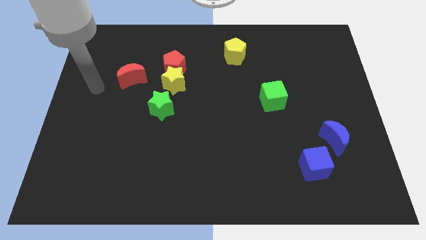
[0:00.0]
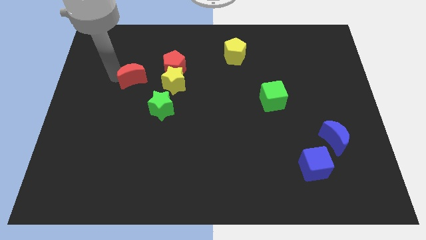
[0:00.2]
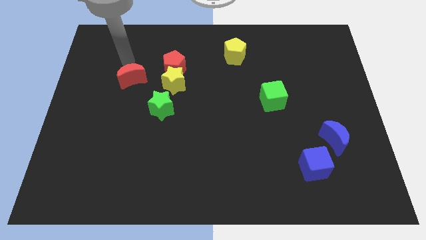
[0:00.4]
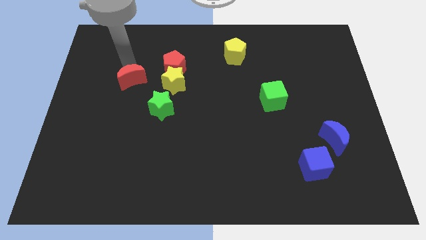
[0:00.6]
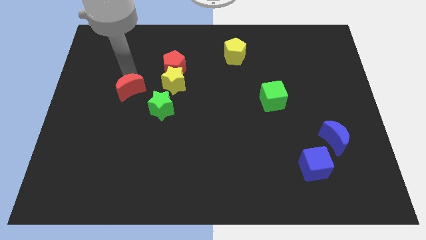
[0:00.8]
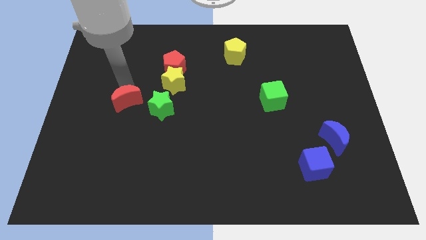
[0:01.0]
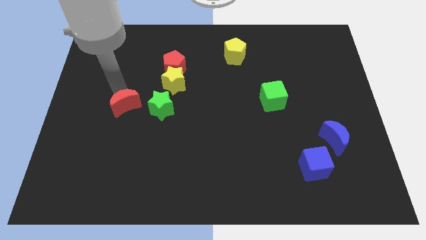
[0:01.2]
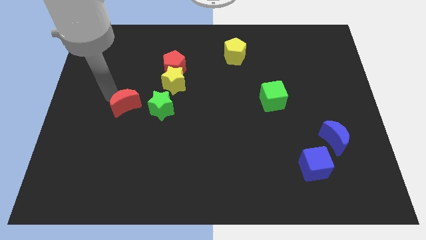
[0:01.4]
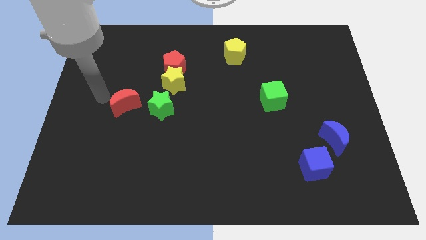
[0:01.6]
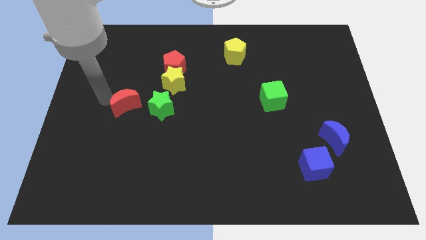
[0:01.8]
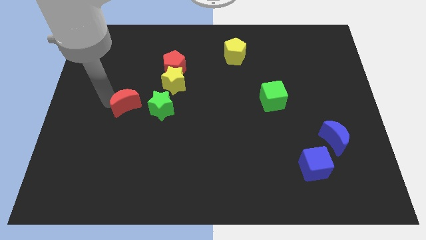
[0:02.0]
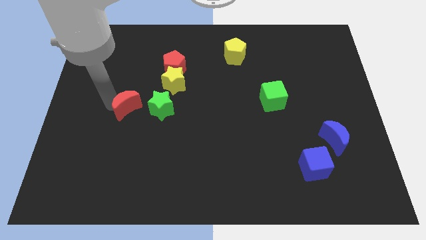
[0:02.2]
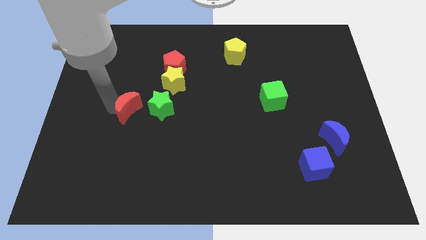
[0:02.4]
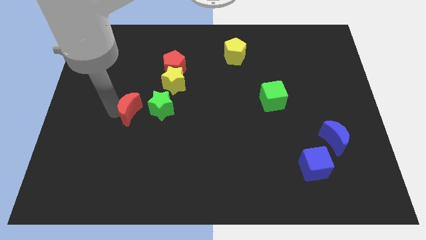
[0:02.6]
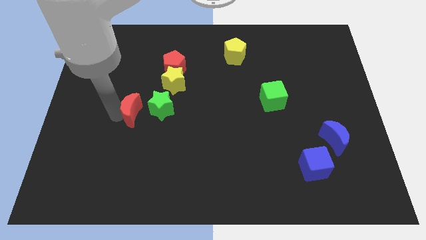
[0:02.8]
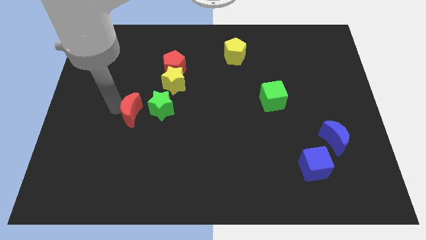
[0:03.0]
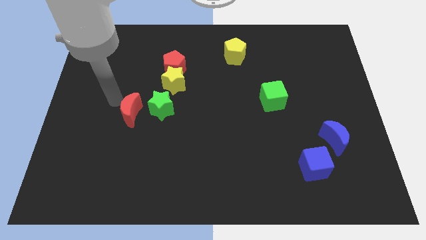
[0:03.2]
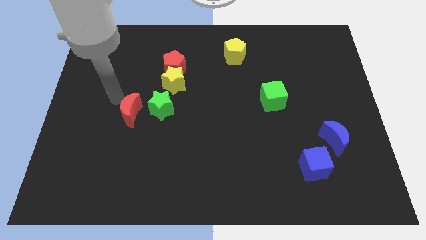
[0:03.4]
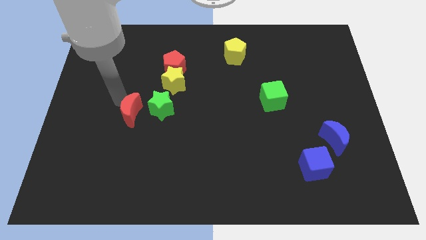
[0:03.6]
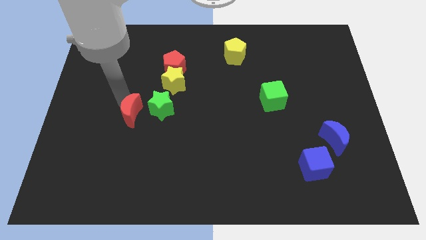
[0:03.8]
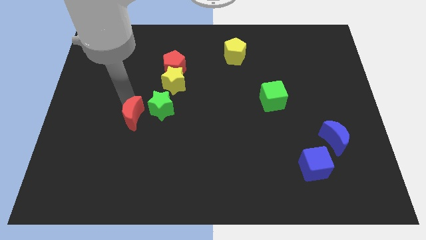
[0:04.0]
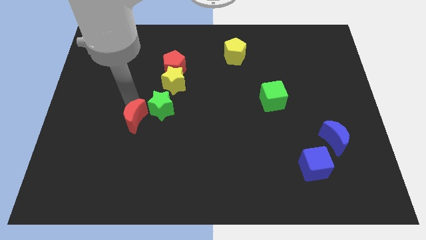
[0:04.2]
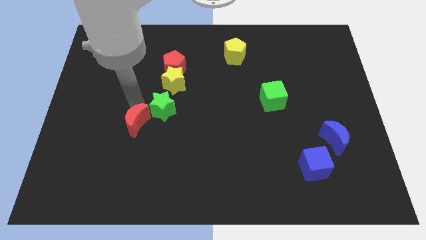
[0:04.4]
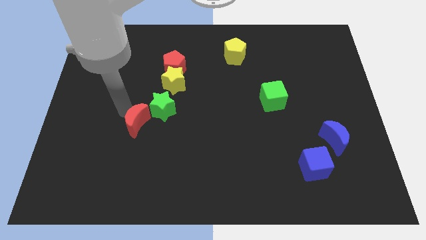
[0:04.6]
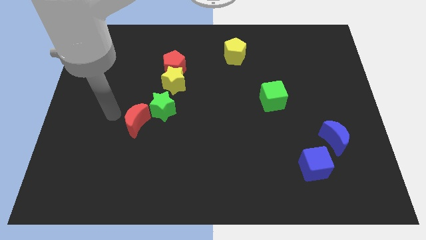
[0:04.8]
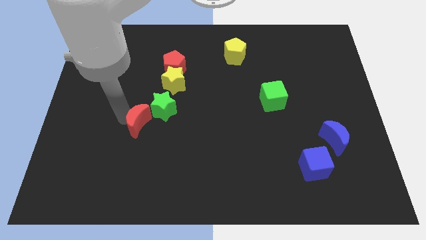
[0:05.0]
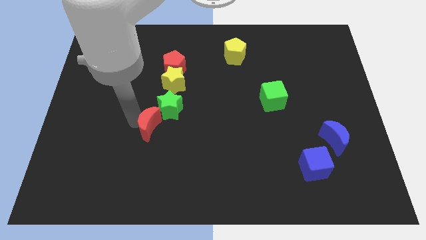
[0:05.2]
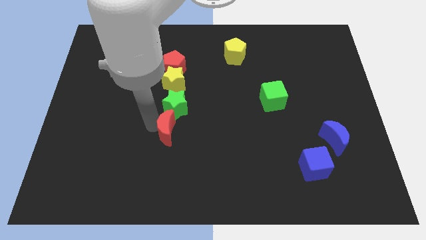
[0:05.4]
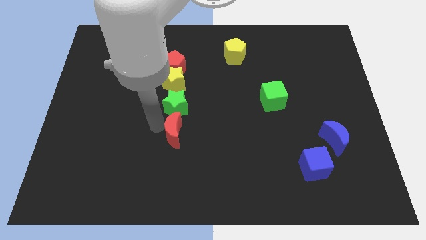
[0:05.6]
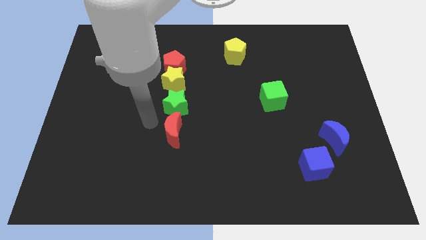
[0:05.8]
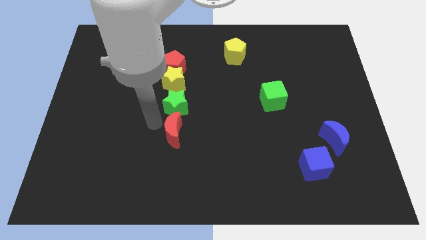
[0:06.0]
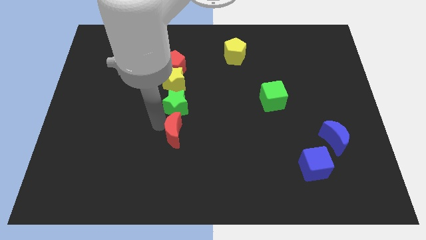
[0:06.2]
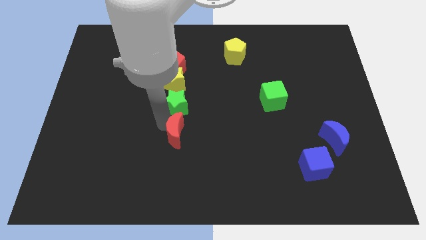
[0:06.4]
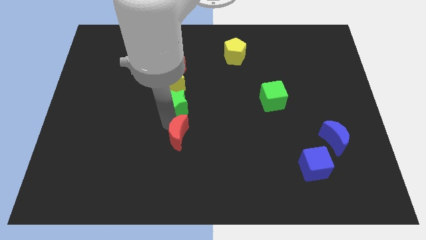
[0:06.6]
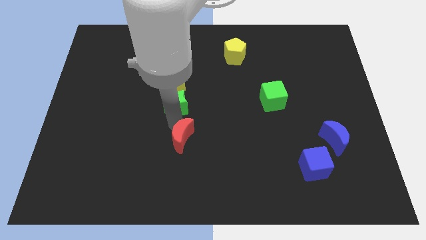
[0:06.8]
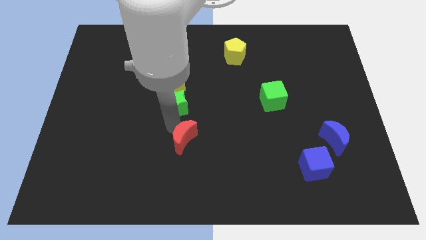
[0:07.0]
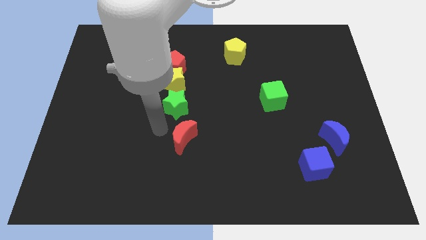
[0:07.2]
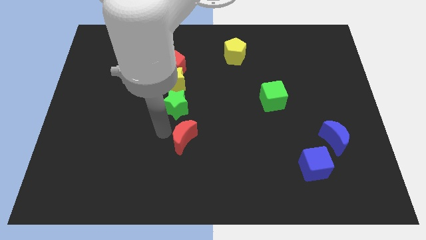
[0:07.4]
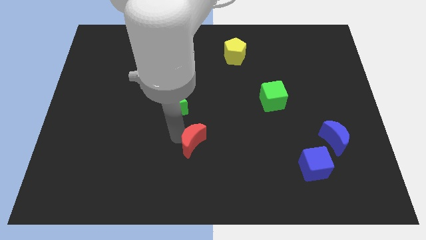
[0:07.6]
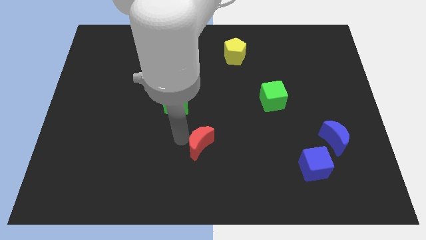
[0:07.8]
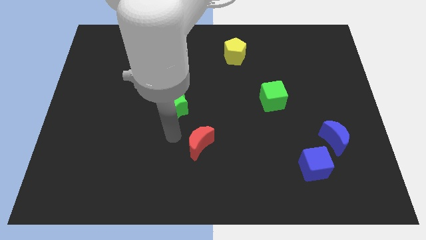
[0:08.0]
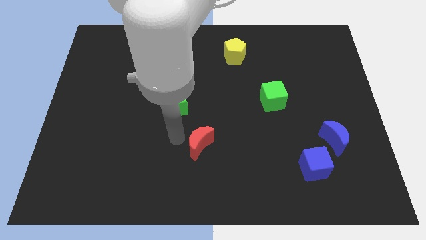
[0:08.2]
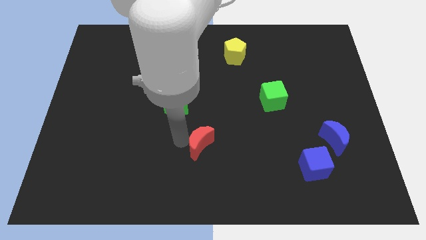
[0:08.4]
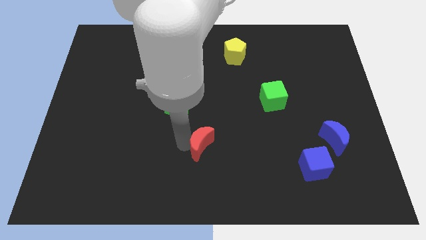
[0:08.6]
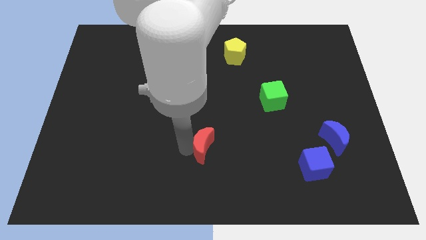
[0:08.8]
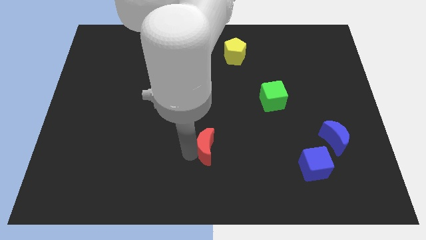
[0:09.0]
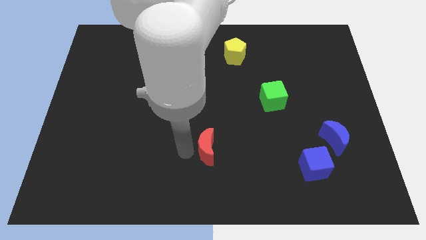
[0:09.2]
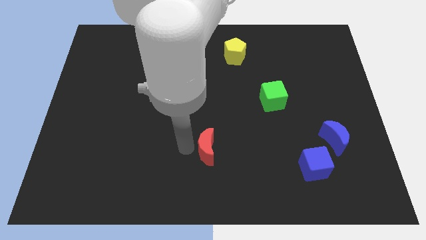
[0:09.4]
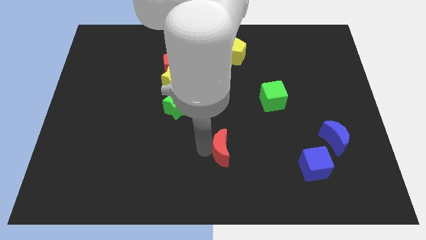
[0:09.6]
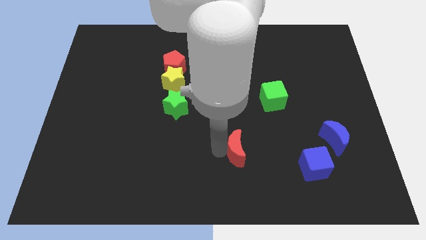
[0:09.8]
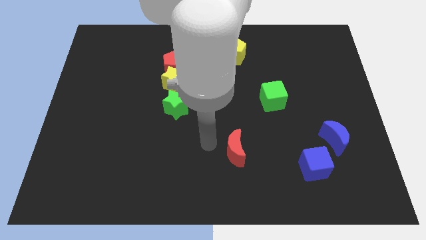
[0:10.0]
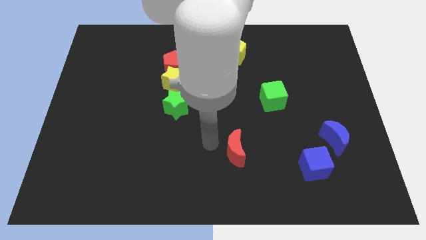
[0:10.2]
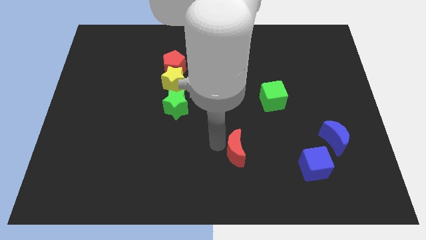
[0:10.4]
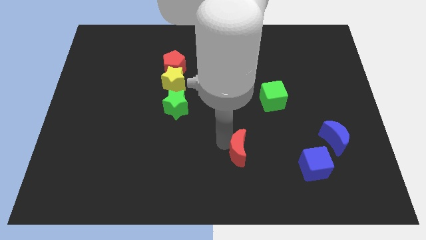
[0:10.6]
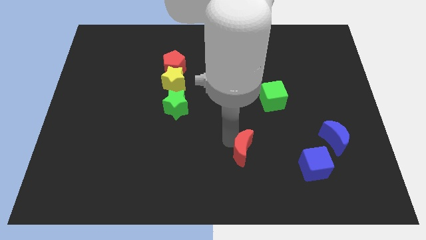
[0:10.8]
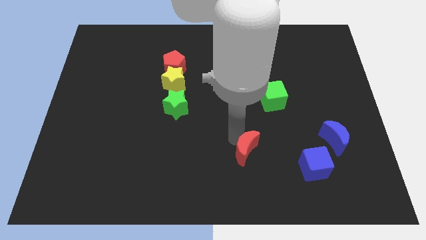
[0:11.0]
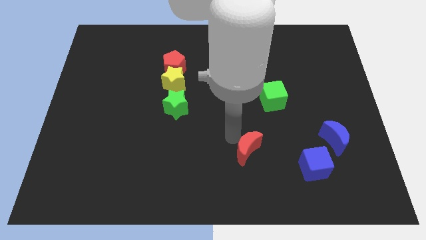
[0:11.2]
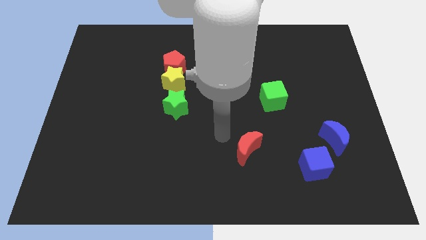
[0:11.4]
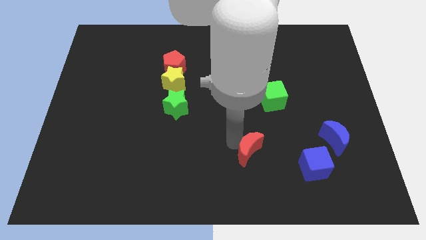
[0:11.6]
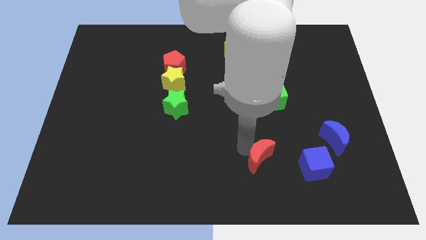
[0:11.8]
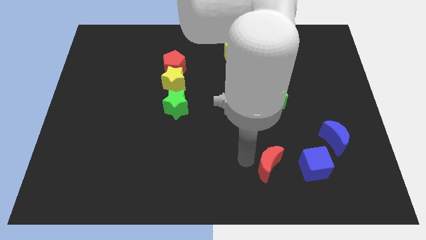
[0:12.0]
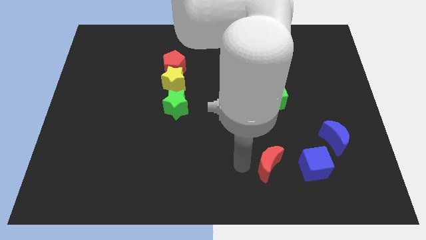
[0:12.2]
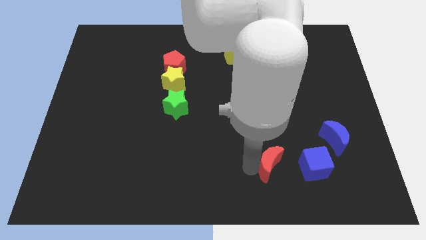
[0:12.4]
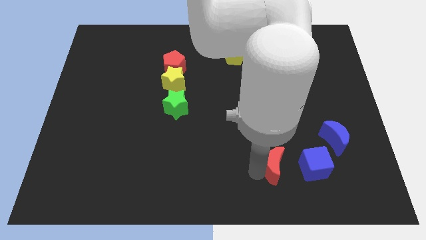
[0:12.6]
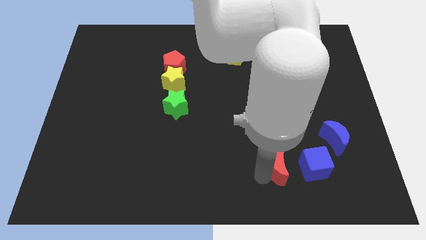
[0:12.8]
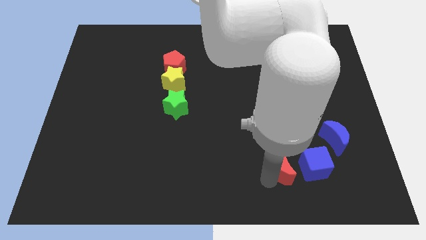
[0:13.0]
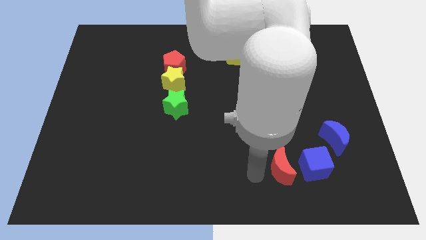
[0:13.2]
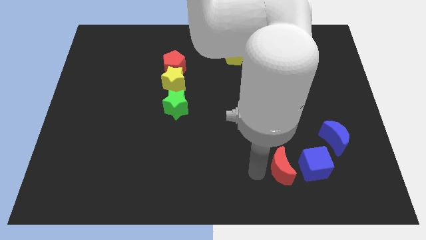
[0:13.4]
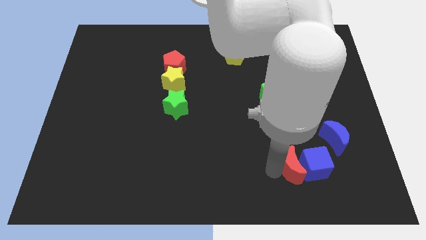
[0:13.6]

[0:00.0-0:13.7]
slide the red moon to the blue cube
